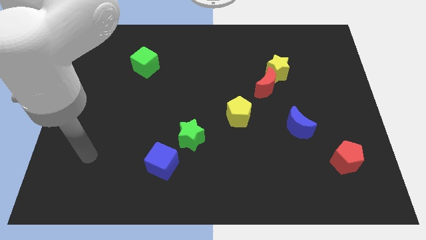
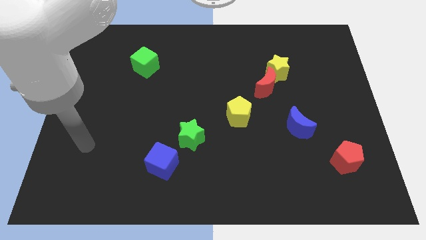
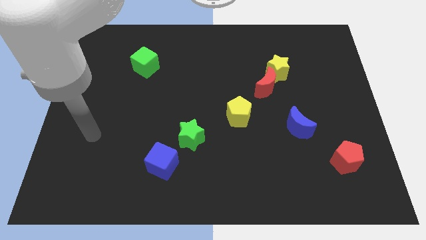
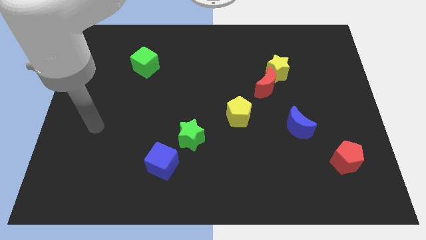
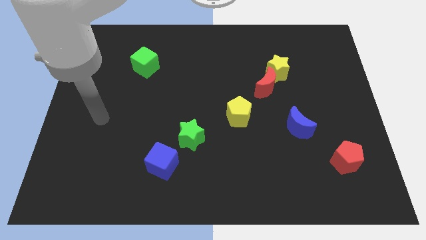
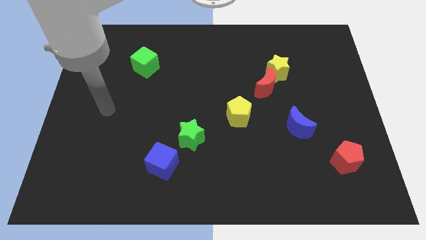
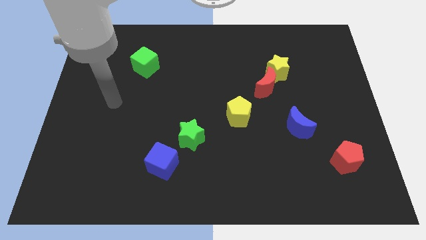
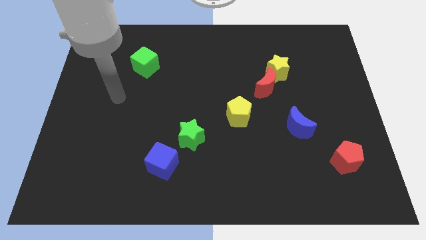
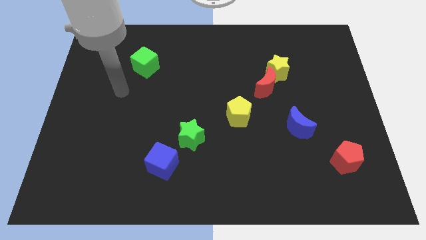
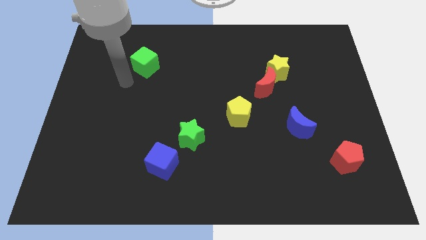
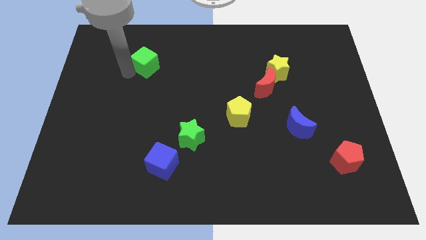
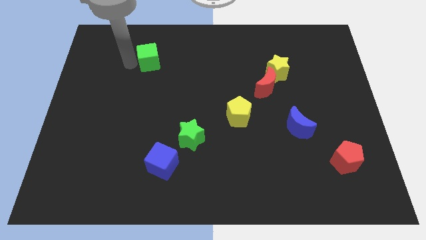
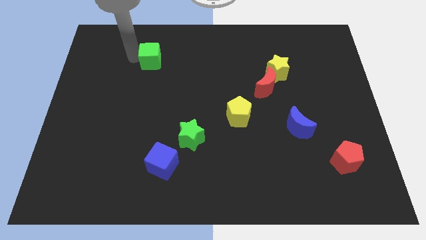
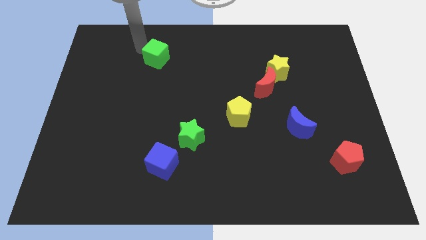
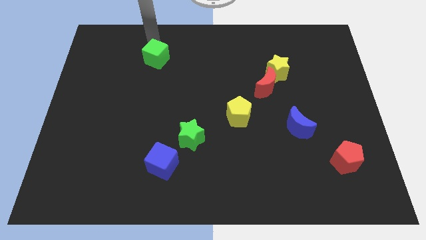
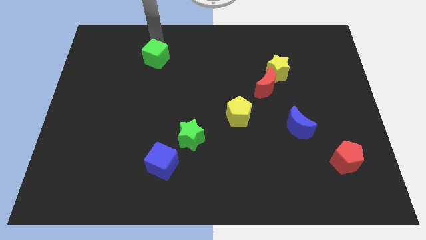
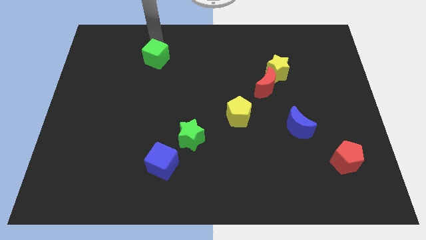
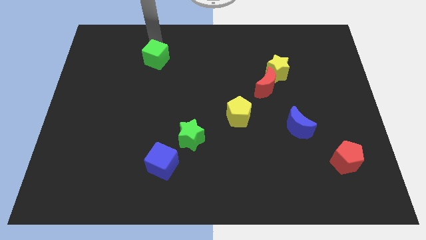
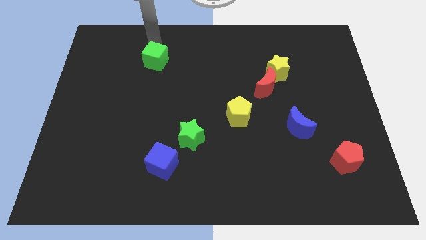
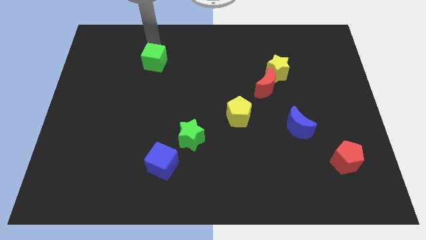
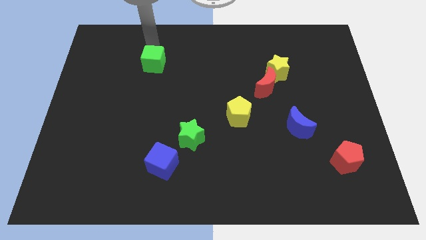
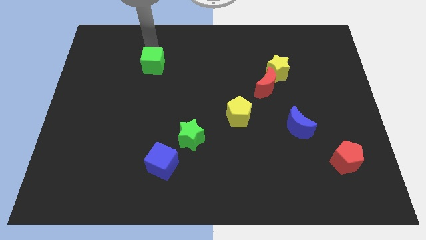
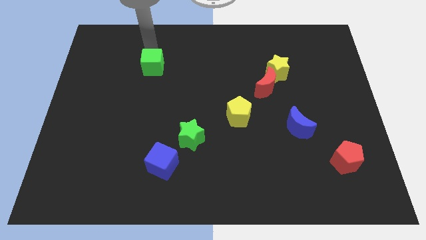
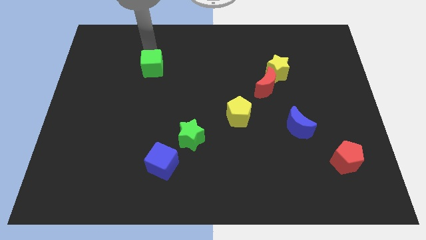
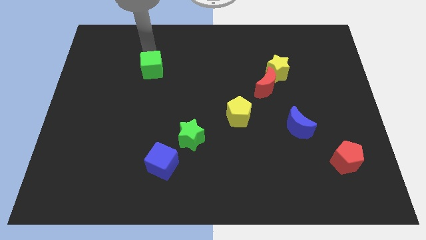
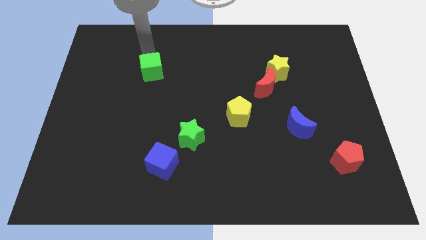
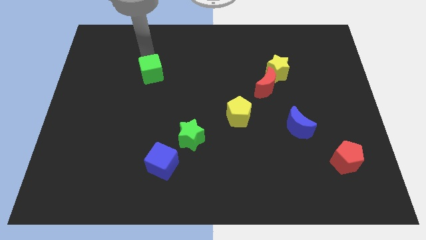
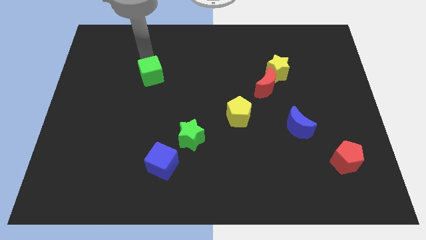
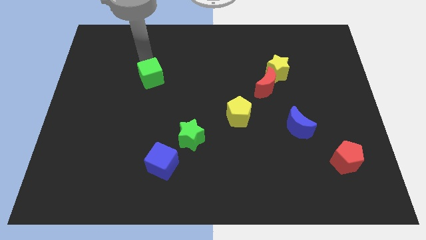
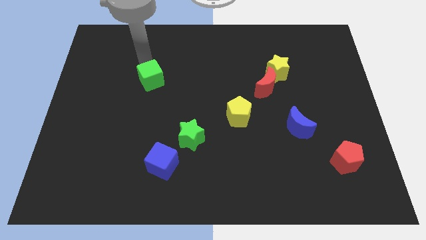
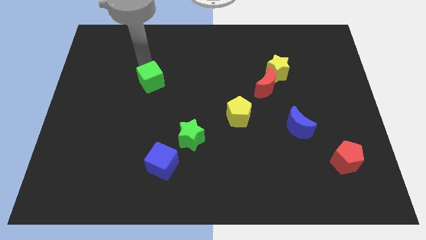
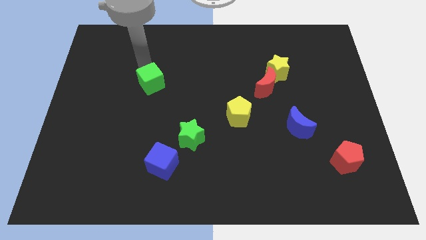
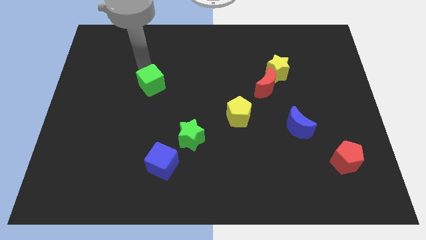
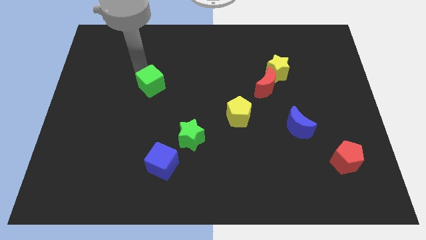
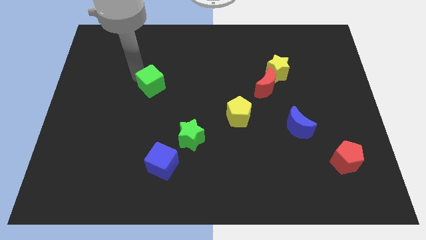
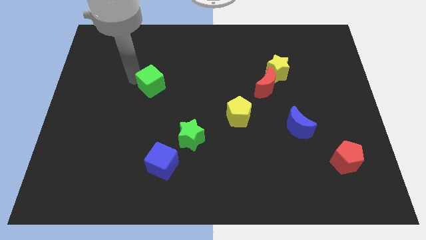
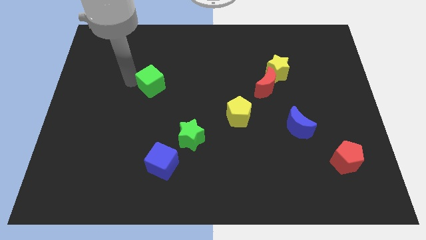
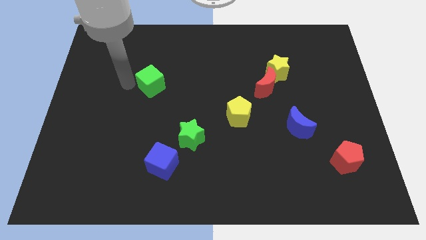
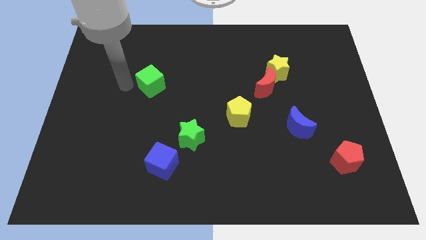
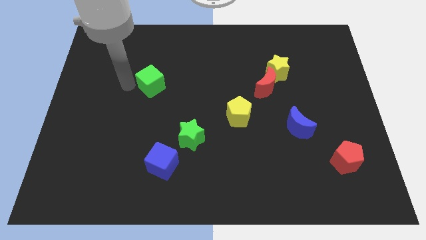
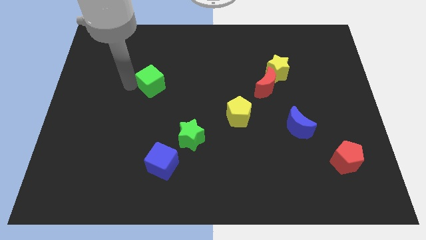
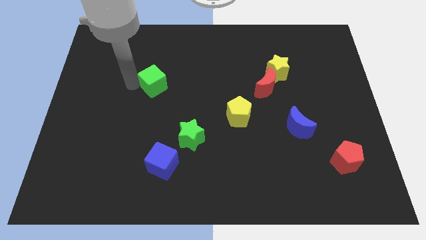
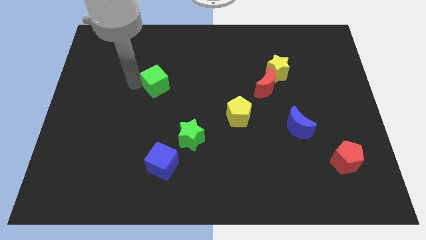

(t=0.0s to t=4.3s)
slide the green cube a little bit downwards and to the right diagonally

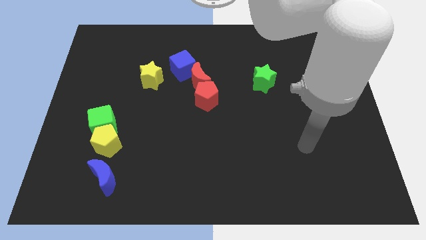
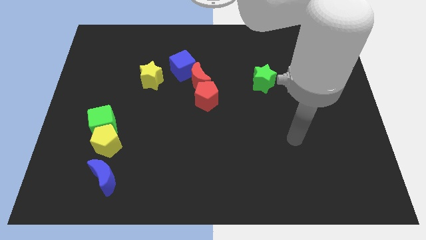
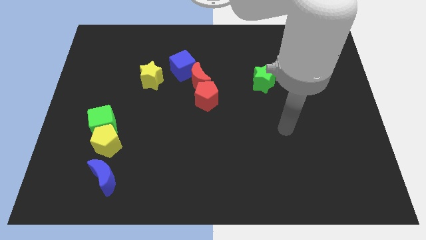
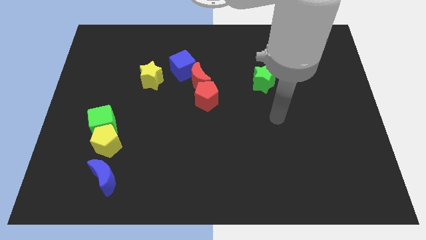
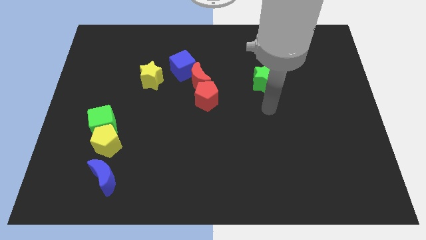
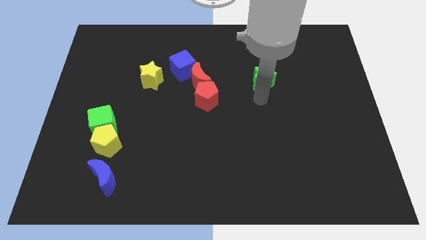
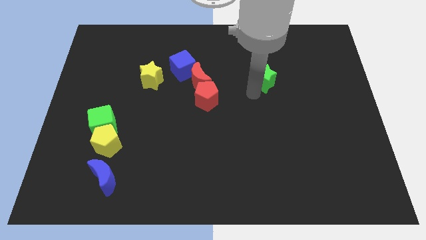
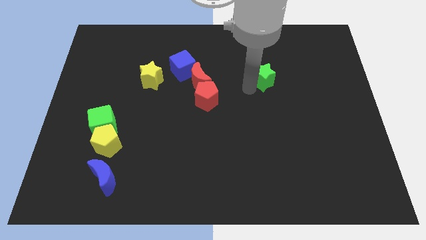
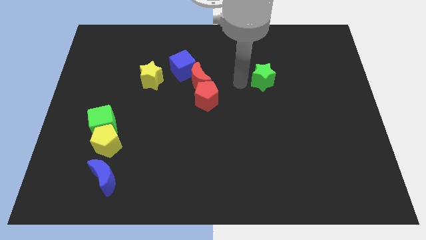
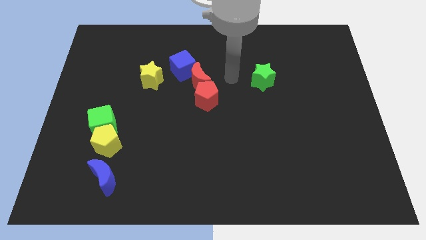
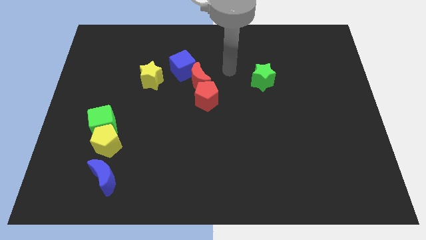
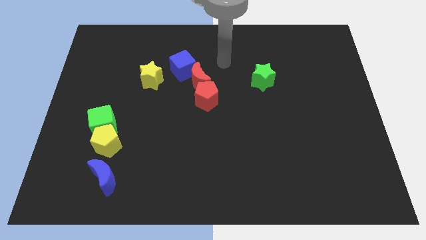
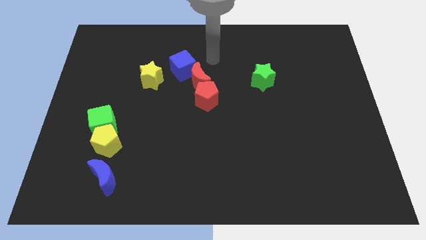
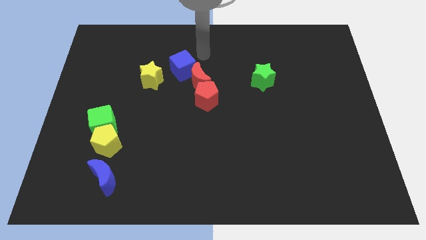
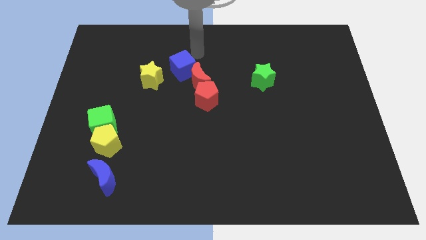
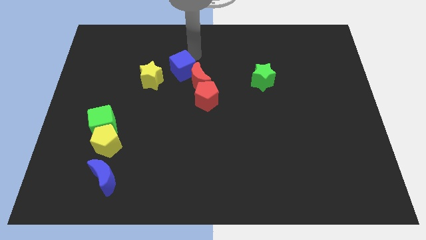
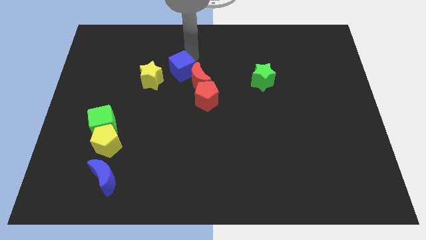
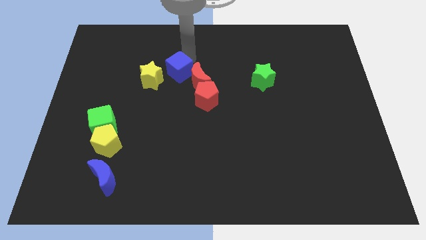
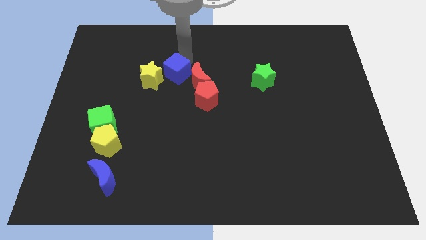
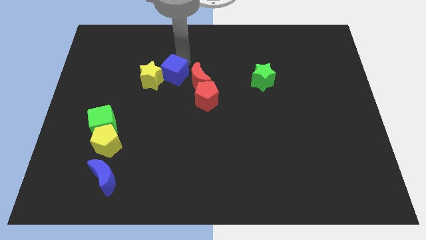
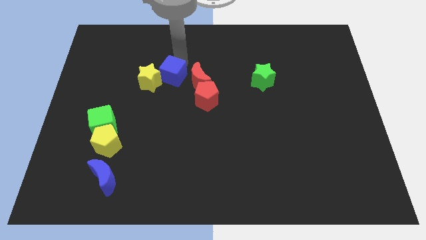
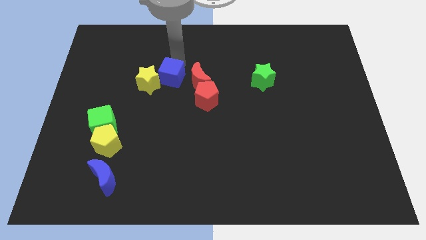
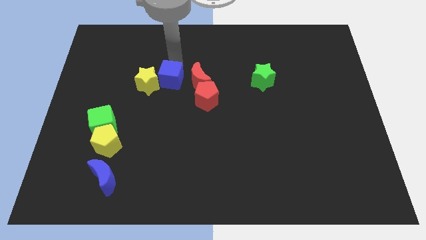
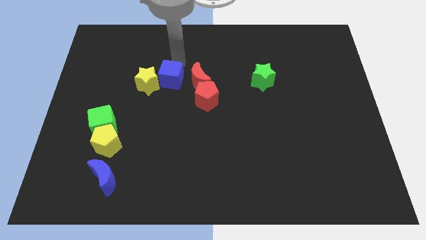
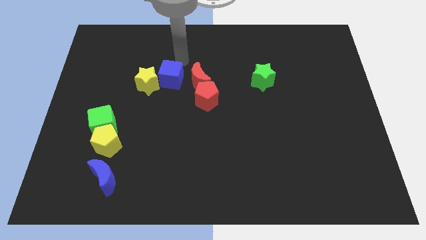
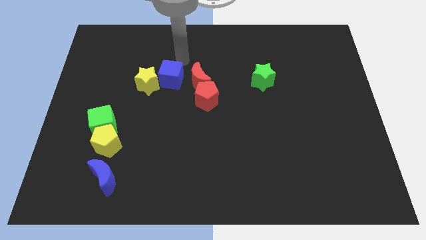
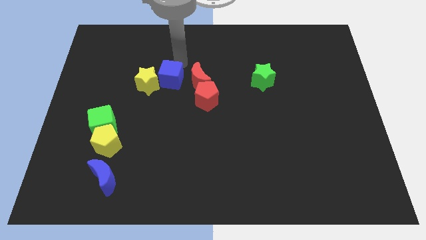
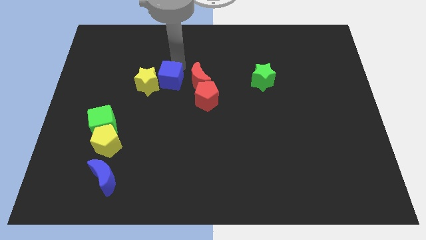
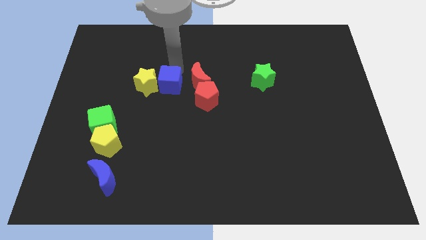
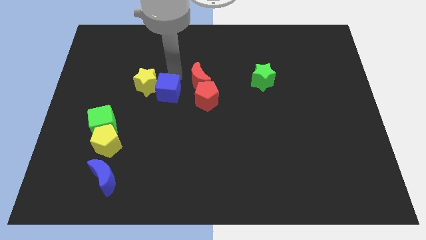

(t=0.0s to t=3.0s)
slightly move the blue cube downwards and to the left

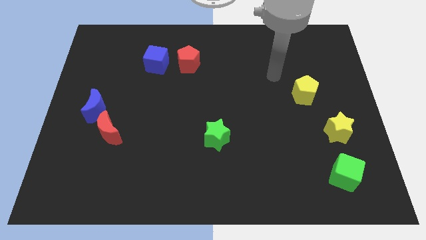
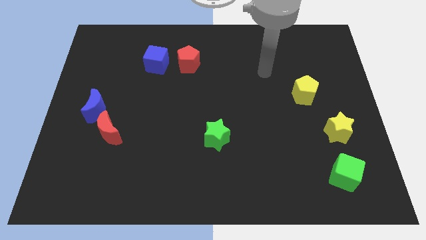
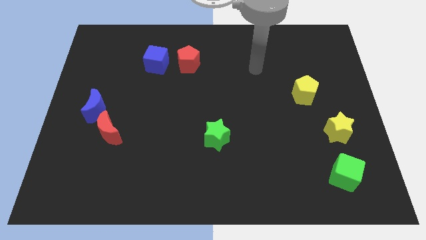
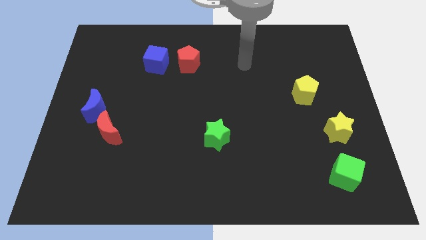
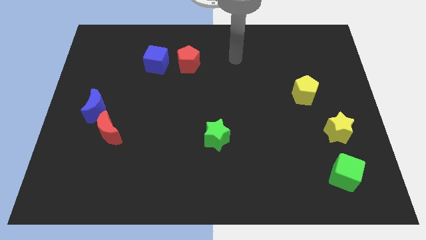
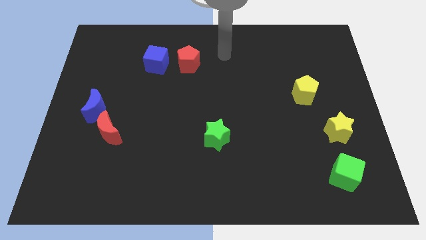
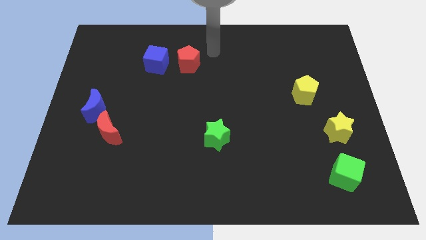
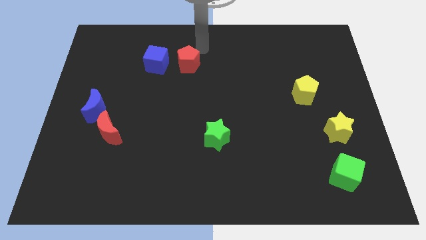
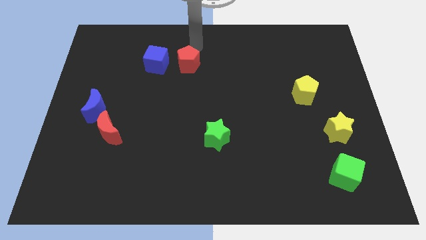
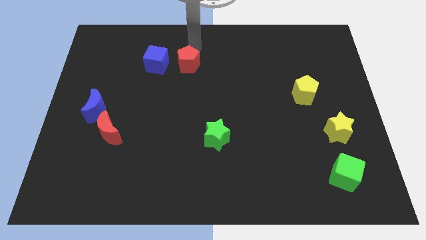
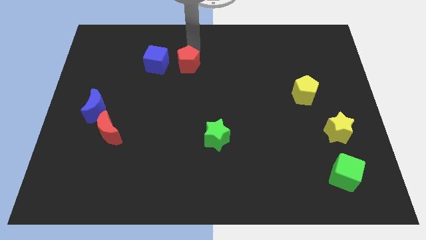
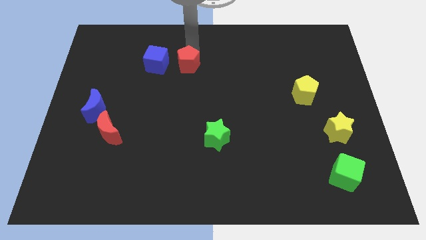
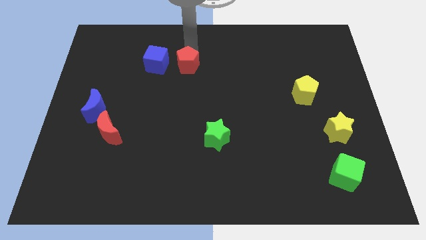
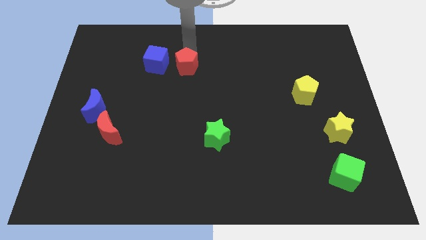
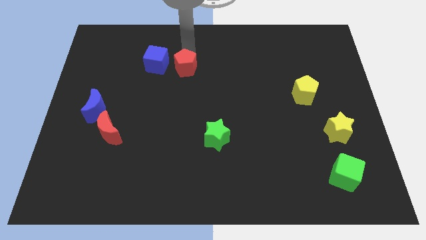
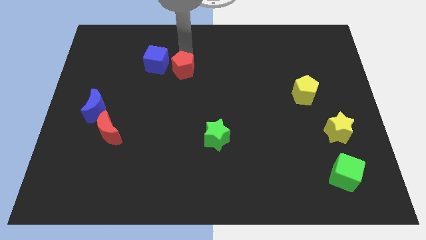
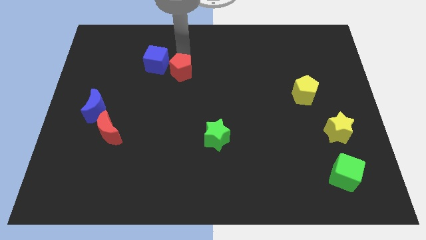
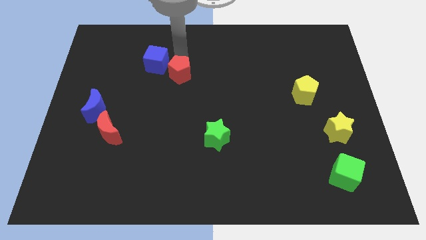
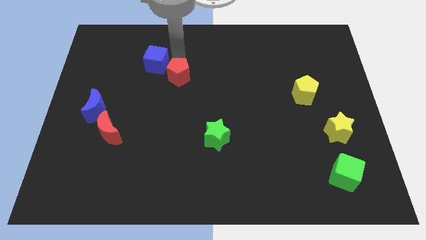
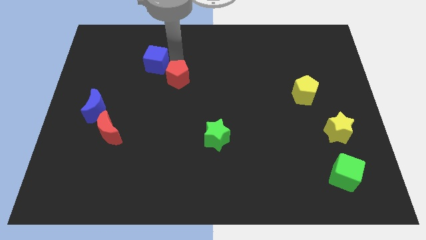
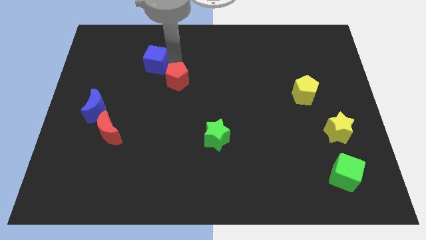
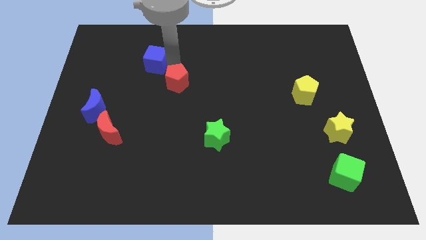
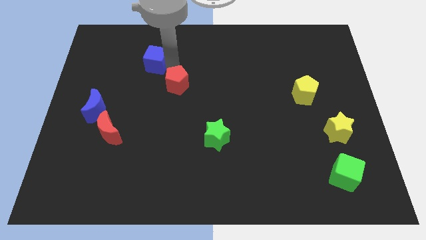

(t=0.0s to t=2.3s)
move the red pentagon downwards somewhat
